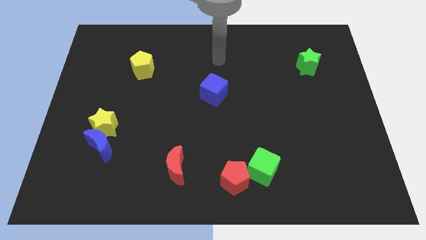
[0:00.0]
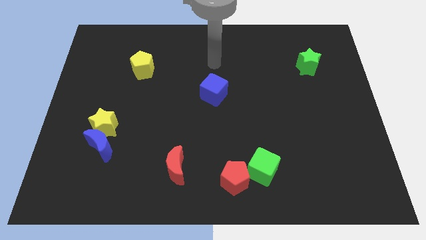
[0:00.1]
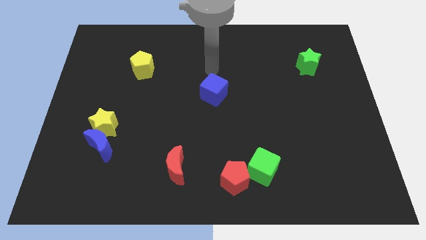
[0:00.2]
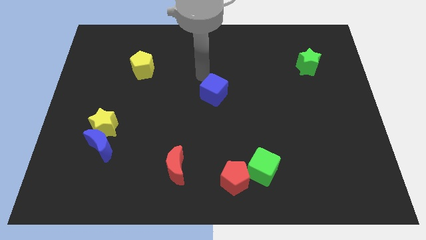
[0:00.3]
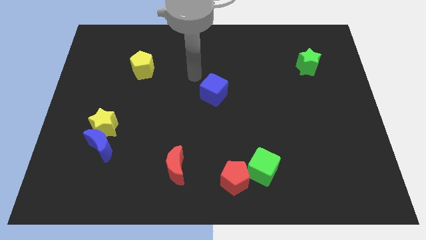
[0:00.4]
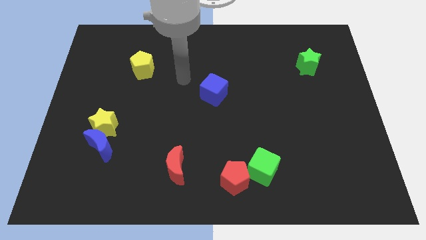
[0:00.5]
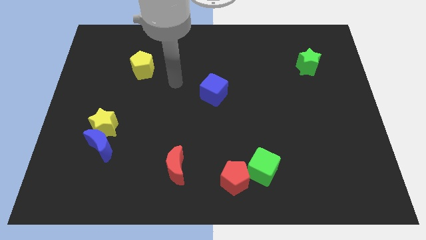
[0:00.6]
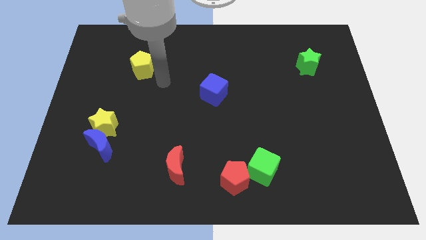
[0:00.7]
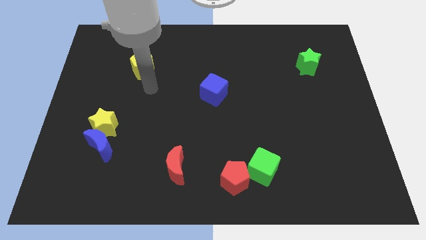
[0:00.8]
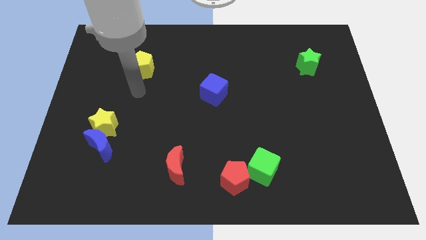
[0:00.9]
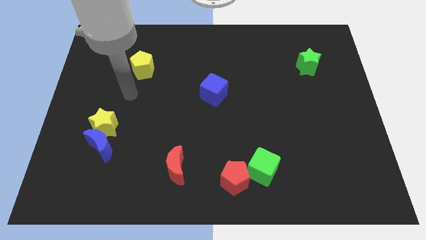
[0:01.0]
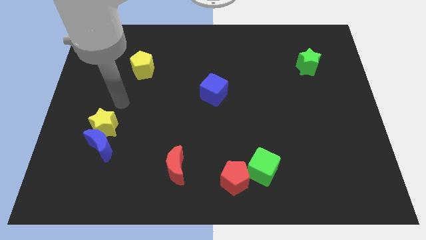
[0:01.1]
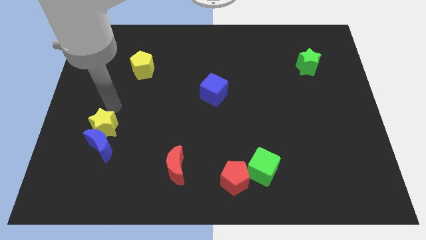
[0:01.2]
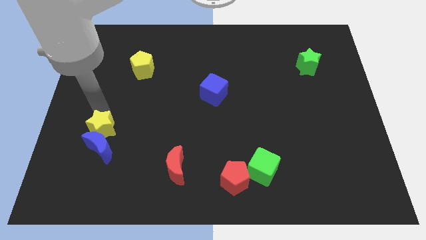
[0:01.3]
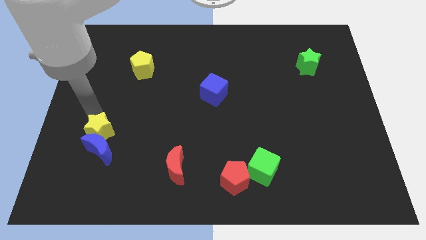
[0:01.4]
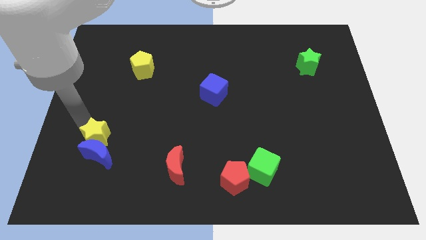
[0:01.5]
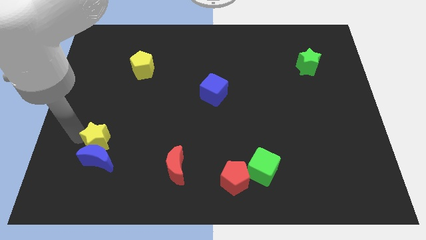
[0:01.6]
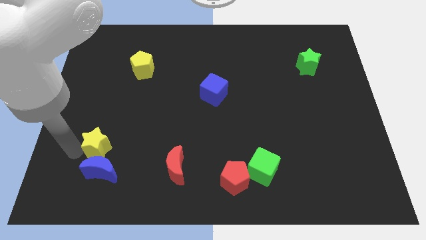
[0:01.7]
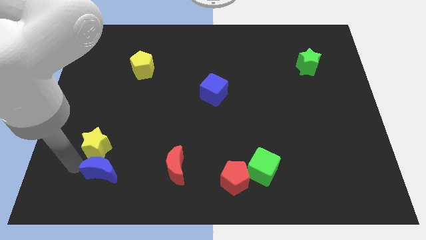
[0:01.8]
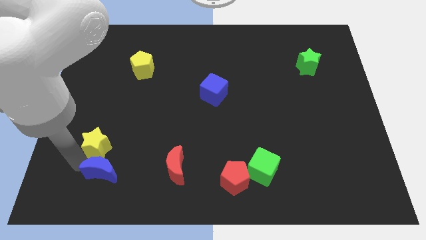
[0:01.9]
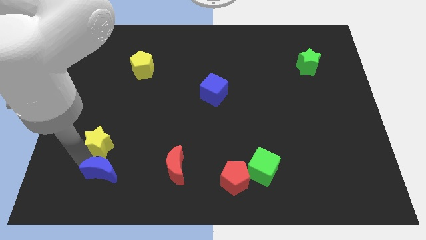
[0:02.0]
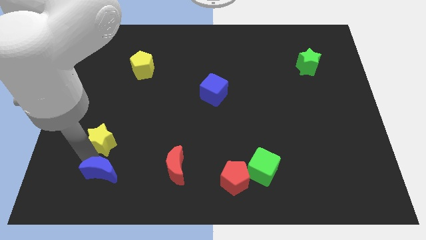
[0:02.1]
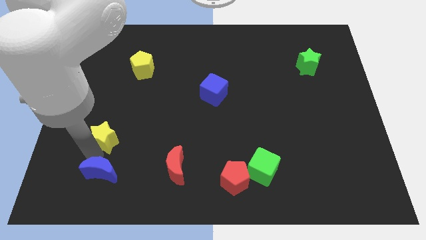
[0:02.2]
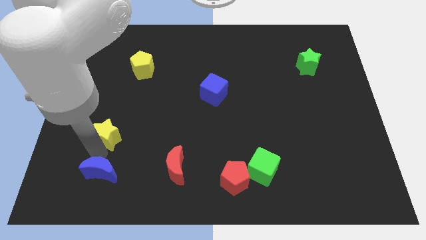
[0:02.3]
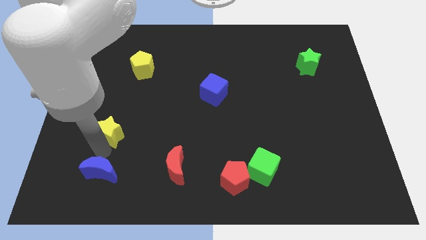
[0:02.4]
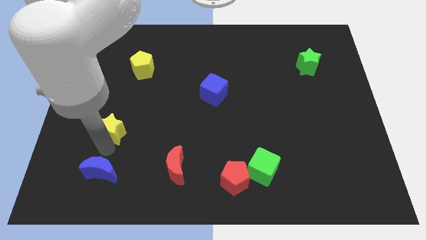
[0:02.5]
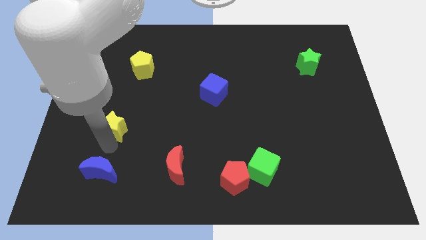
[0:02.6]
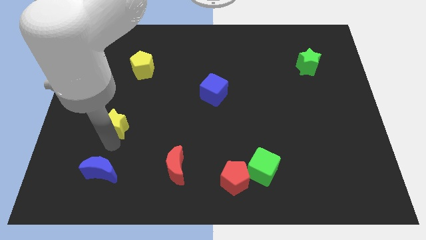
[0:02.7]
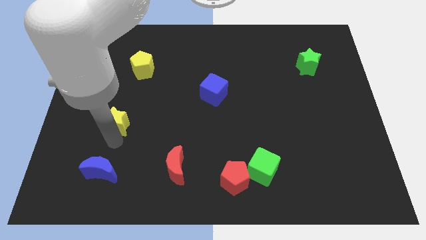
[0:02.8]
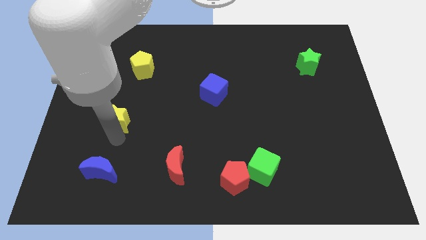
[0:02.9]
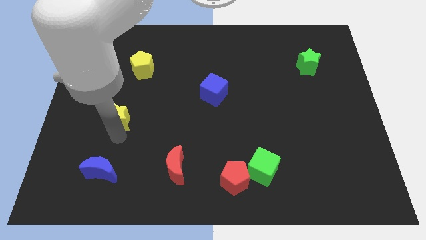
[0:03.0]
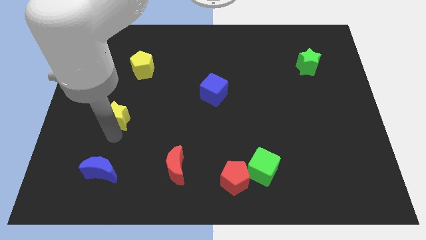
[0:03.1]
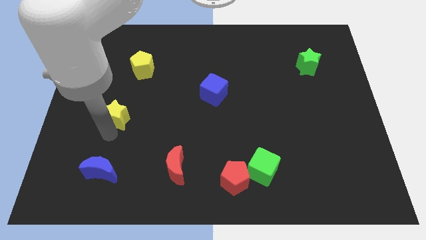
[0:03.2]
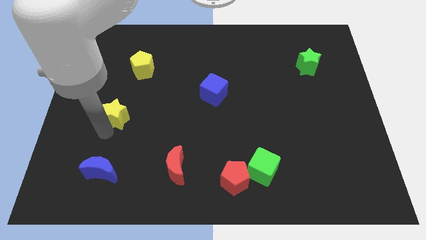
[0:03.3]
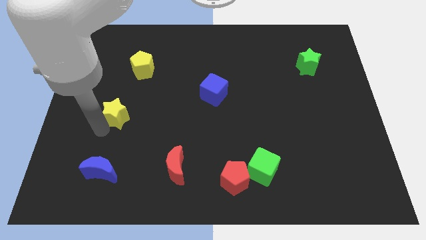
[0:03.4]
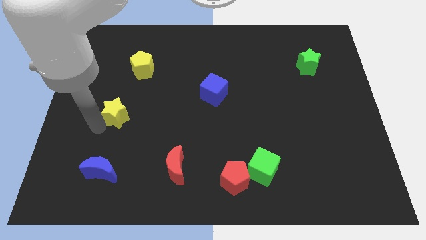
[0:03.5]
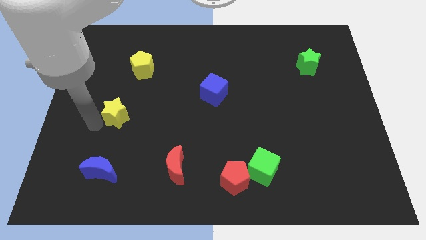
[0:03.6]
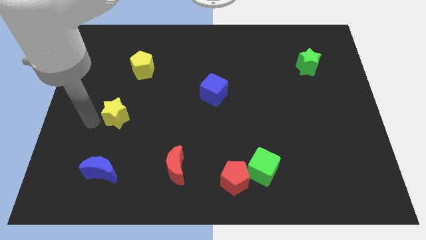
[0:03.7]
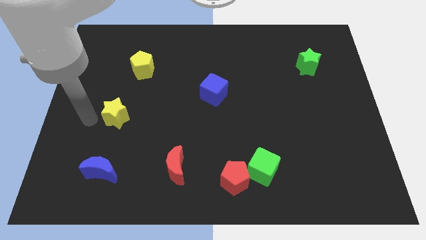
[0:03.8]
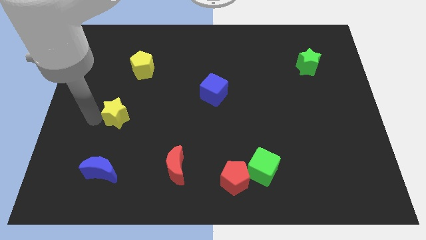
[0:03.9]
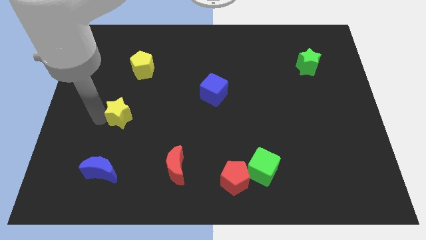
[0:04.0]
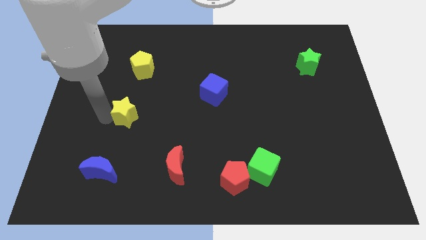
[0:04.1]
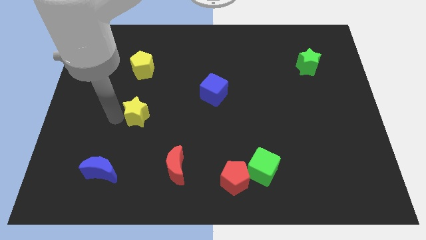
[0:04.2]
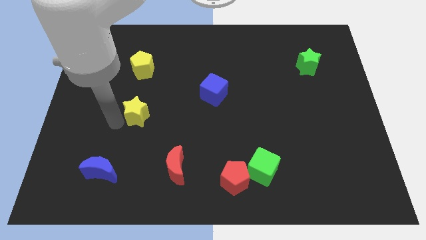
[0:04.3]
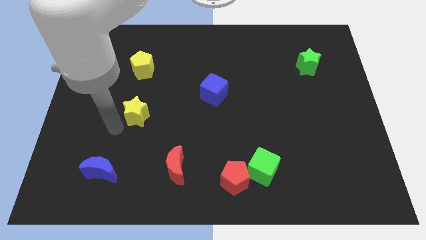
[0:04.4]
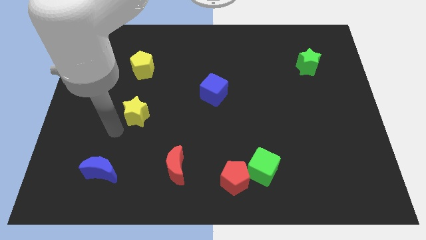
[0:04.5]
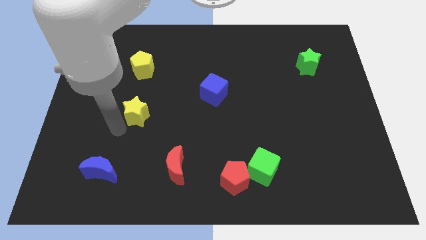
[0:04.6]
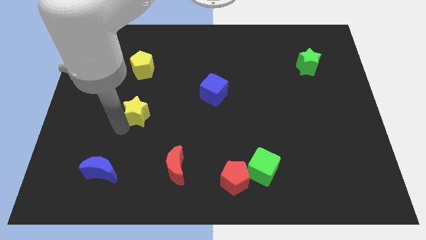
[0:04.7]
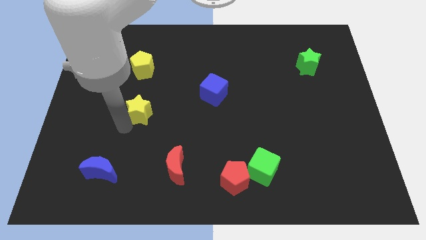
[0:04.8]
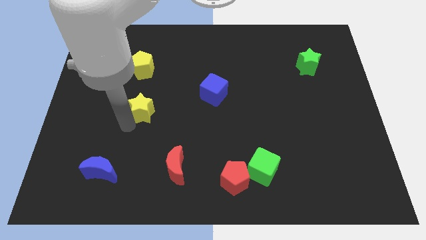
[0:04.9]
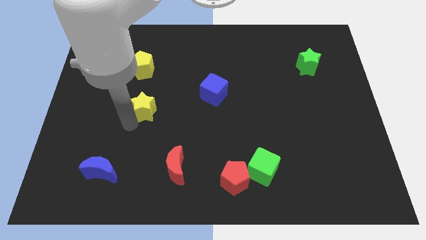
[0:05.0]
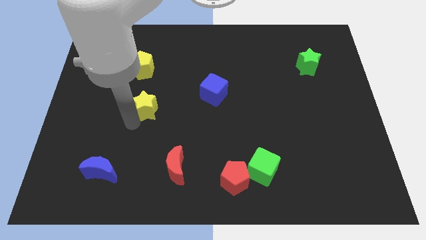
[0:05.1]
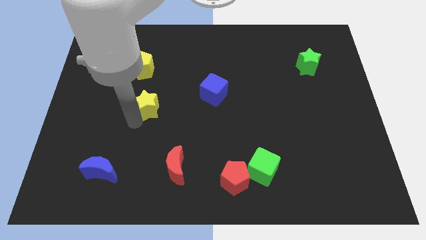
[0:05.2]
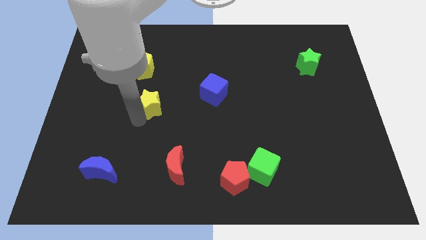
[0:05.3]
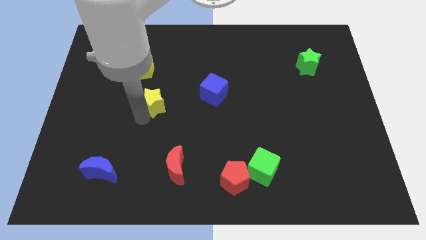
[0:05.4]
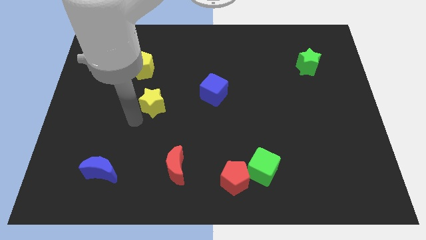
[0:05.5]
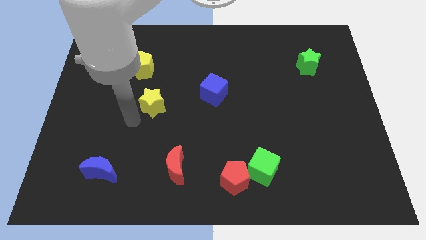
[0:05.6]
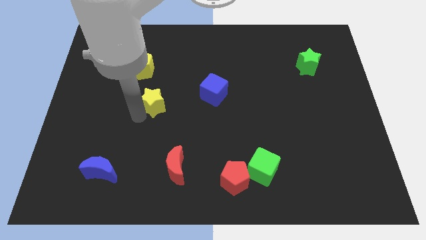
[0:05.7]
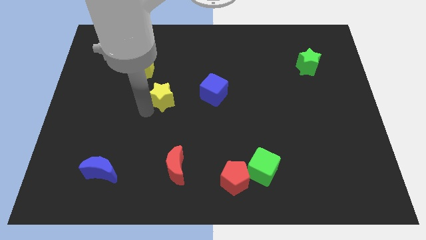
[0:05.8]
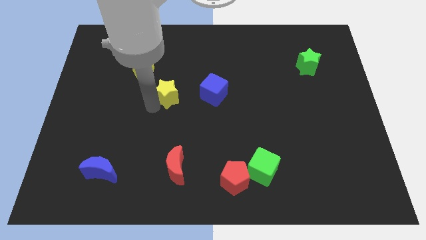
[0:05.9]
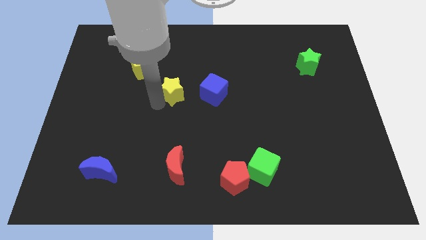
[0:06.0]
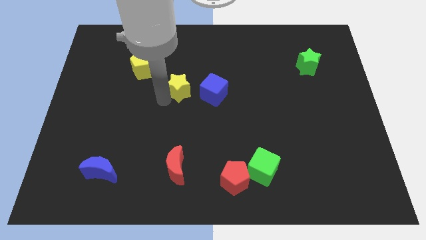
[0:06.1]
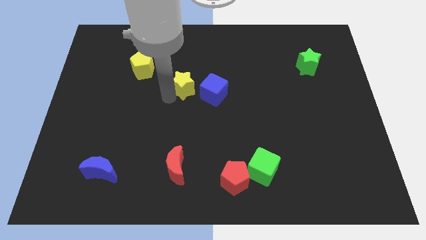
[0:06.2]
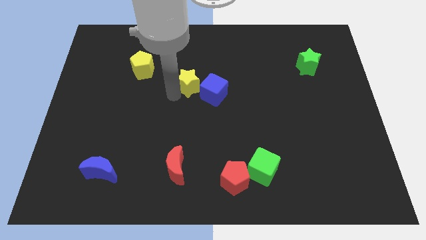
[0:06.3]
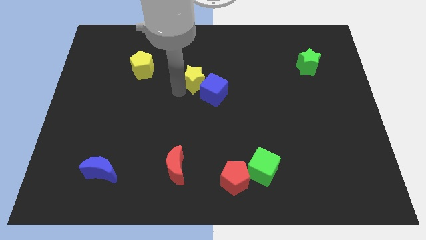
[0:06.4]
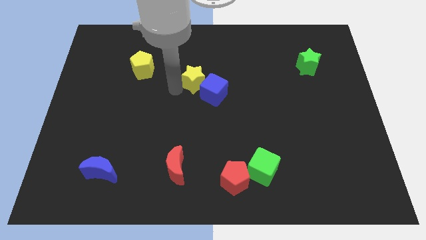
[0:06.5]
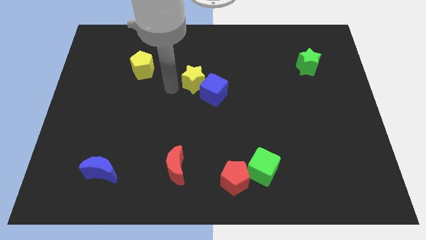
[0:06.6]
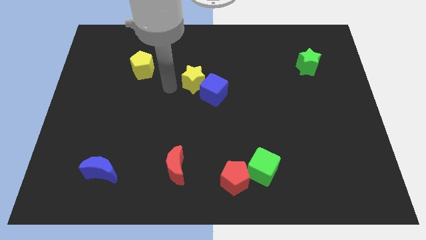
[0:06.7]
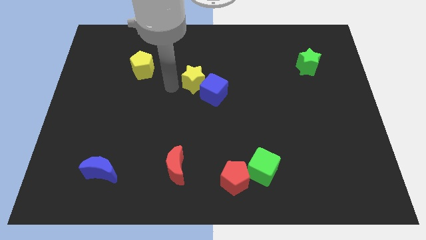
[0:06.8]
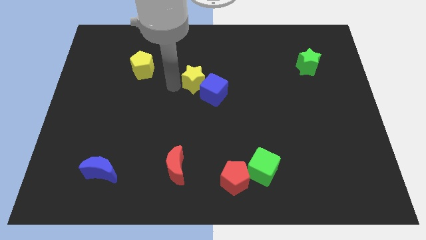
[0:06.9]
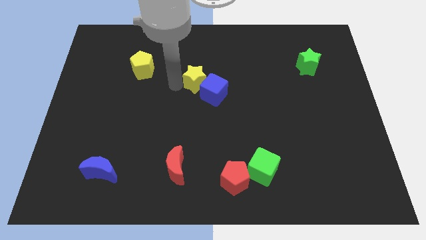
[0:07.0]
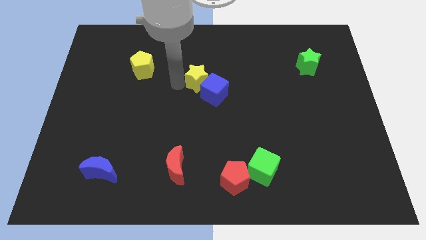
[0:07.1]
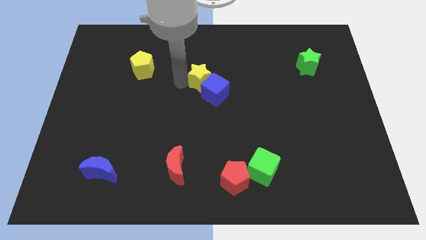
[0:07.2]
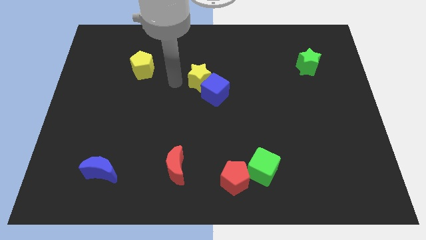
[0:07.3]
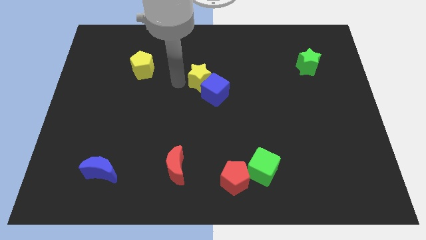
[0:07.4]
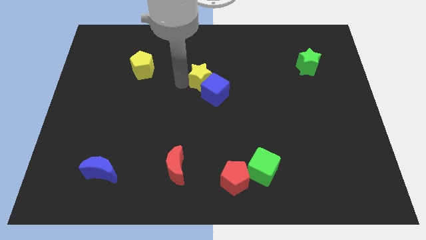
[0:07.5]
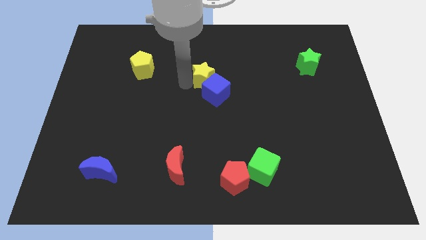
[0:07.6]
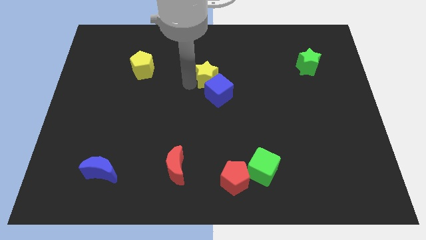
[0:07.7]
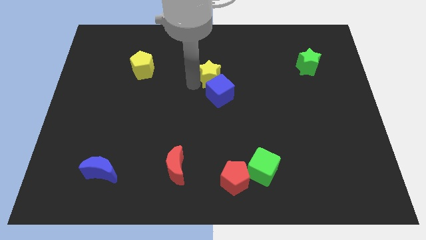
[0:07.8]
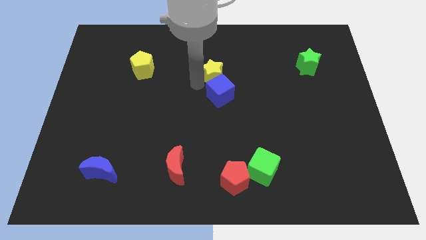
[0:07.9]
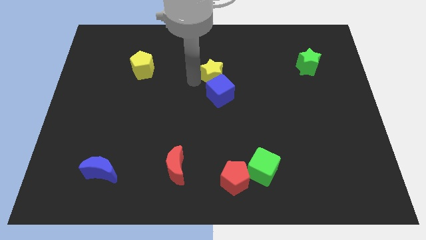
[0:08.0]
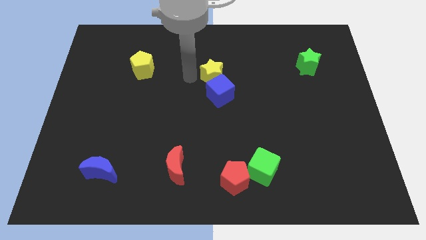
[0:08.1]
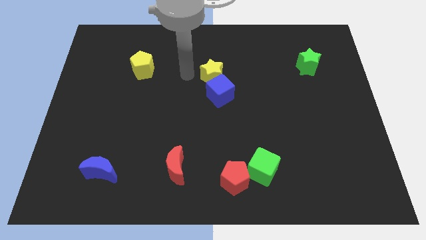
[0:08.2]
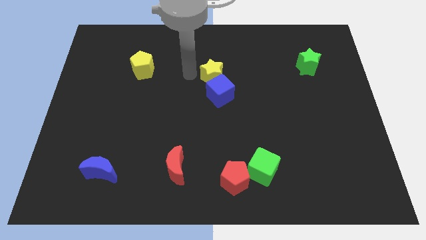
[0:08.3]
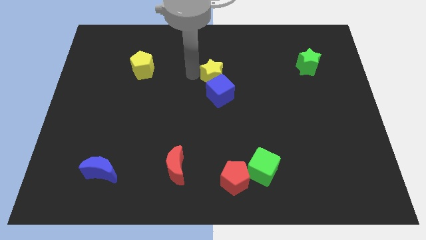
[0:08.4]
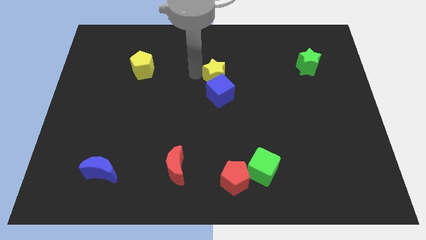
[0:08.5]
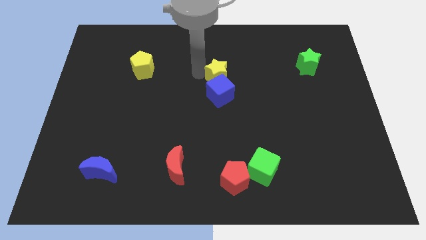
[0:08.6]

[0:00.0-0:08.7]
slide the yellow star to the top right side of the blue cube
